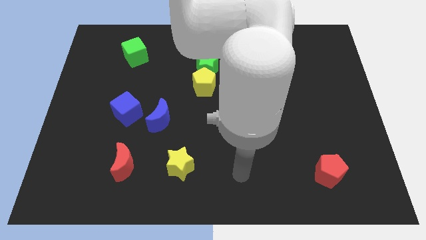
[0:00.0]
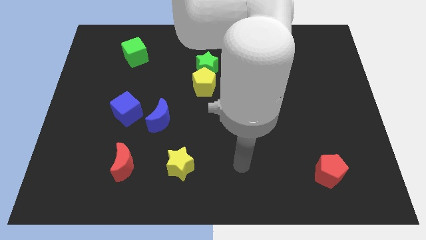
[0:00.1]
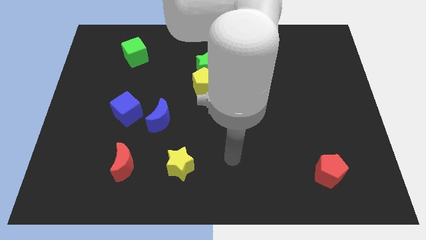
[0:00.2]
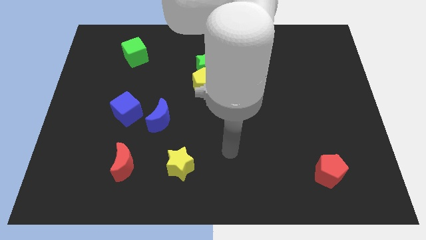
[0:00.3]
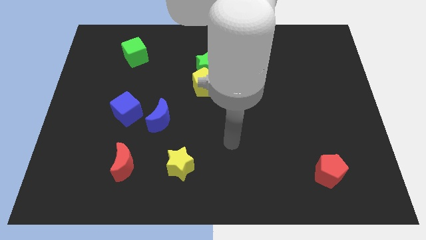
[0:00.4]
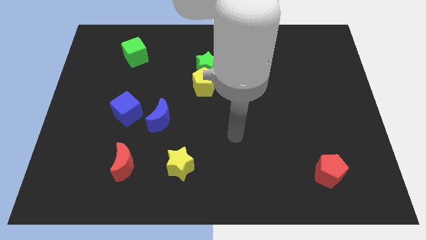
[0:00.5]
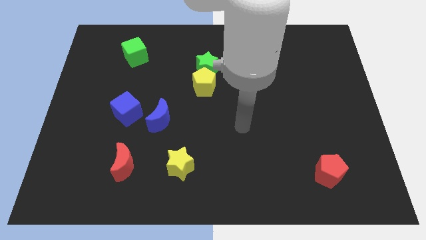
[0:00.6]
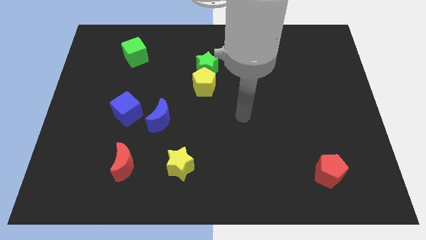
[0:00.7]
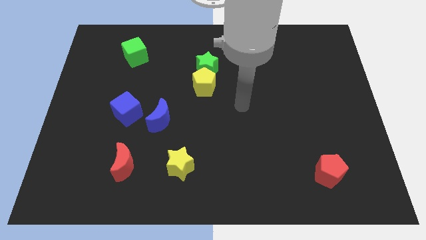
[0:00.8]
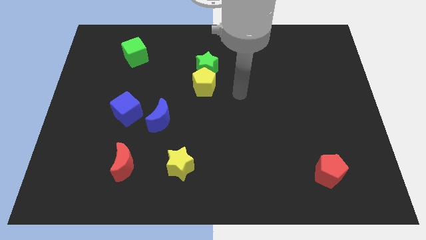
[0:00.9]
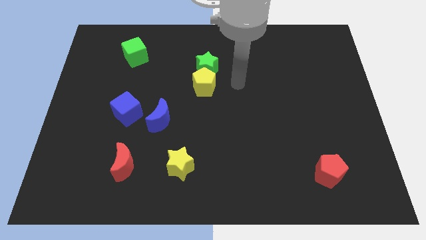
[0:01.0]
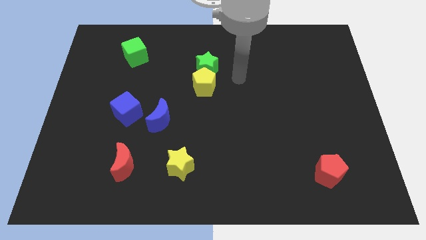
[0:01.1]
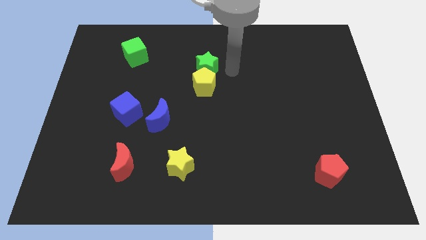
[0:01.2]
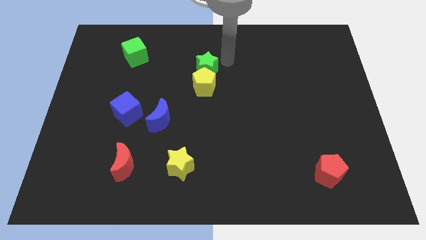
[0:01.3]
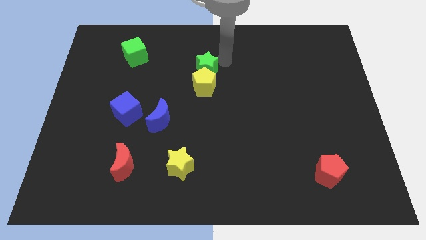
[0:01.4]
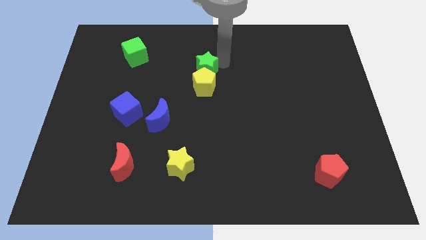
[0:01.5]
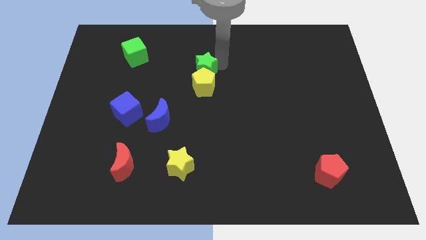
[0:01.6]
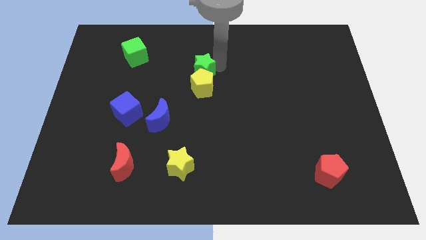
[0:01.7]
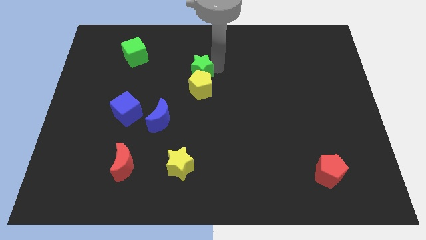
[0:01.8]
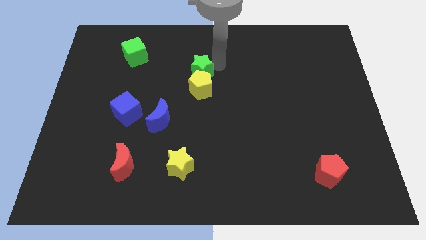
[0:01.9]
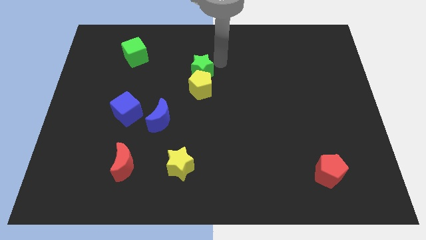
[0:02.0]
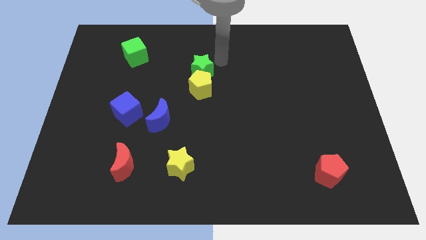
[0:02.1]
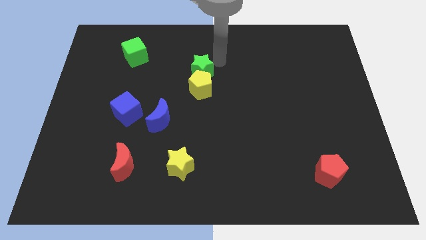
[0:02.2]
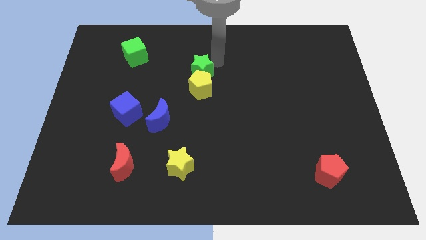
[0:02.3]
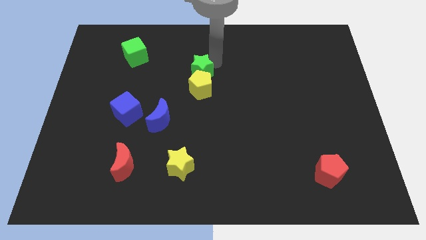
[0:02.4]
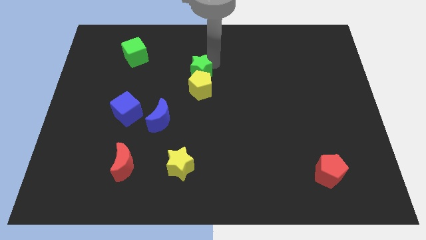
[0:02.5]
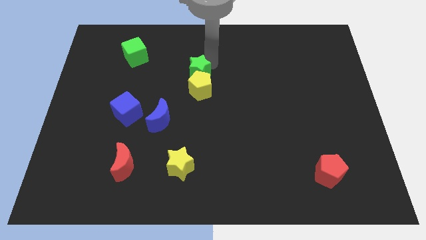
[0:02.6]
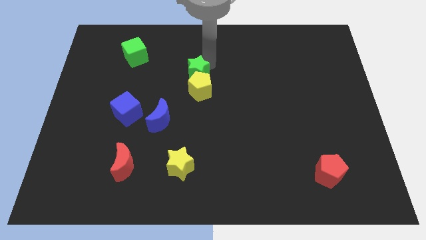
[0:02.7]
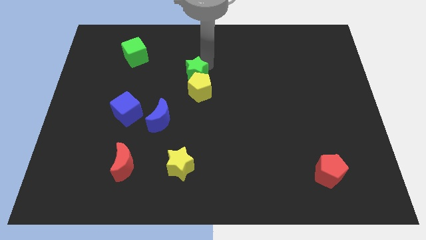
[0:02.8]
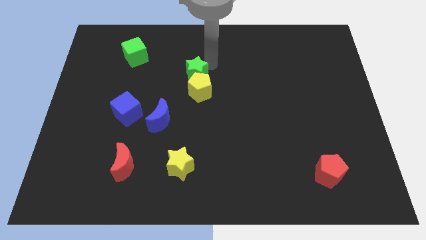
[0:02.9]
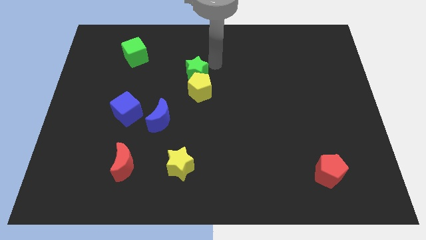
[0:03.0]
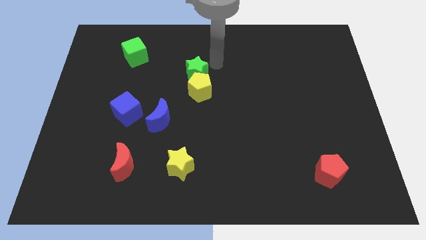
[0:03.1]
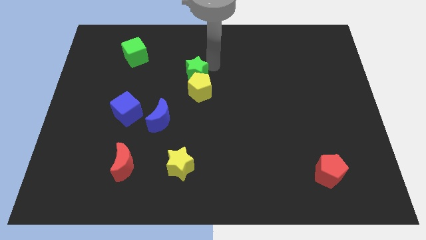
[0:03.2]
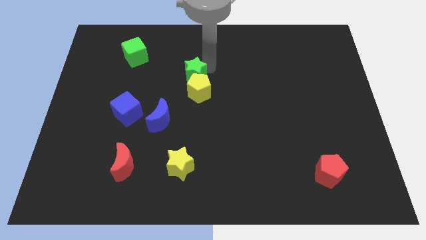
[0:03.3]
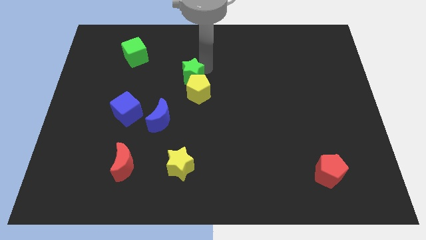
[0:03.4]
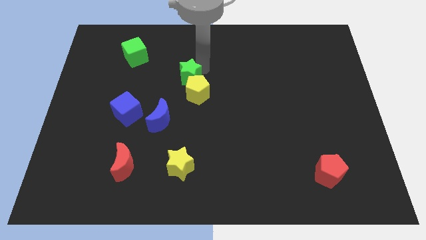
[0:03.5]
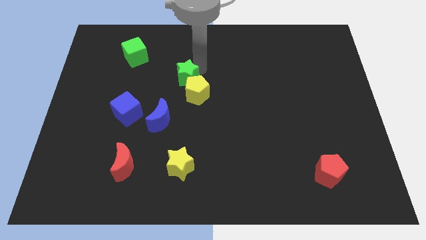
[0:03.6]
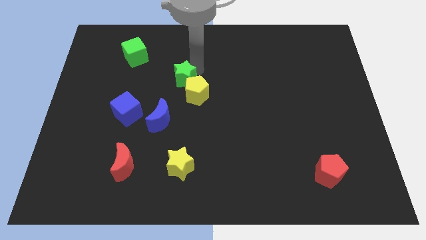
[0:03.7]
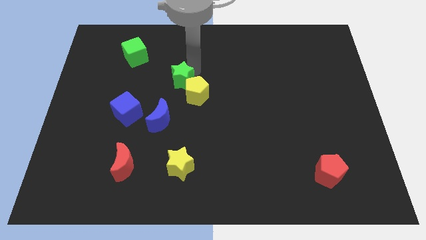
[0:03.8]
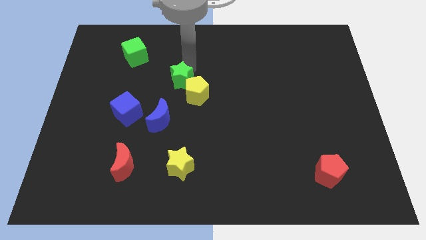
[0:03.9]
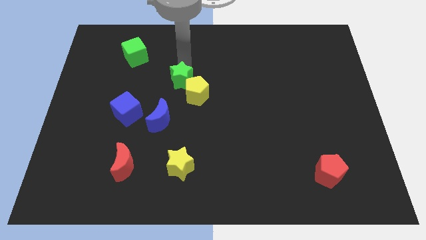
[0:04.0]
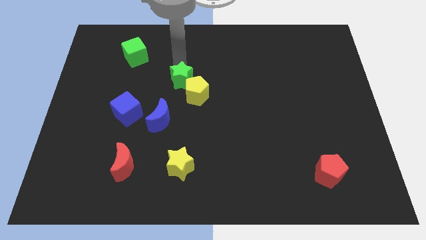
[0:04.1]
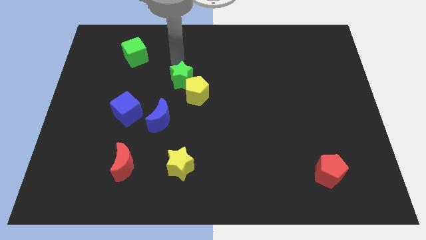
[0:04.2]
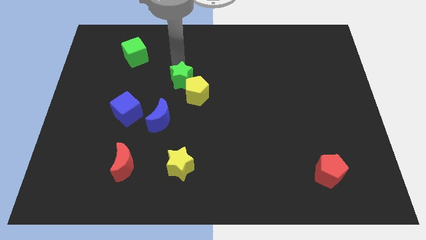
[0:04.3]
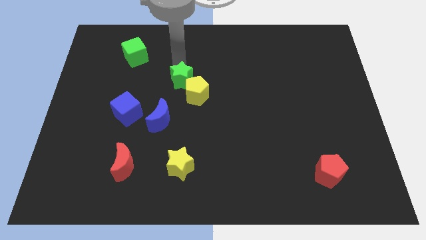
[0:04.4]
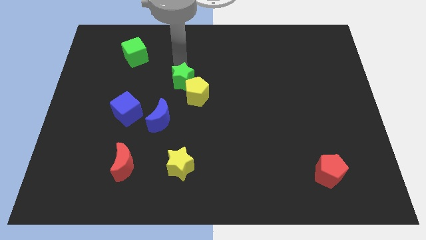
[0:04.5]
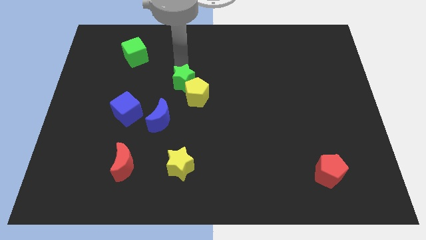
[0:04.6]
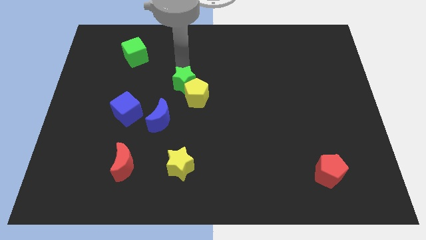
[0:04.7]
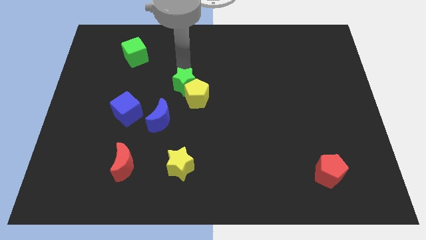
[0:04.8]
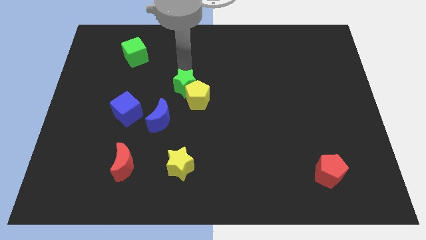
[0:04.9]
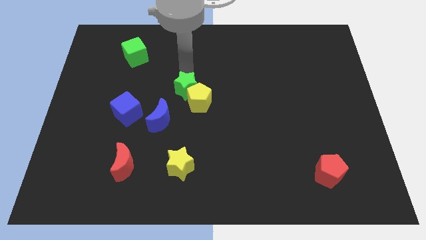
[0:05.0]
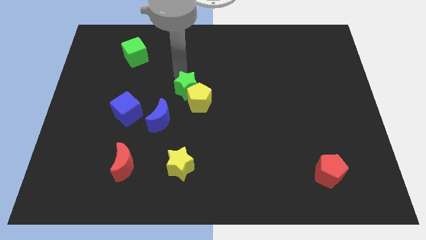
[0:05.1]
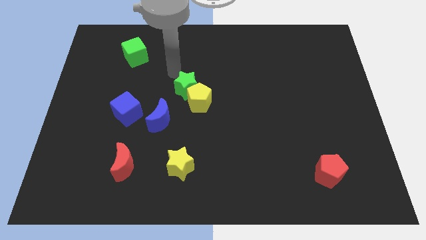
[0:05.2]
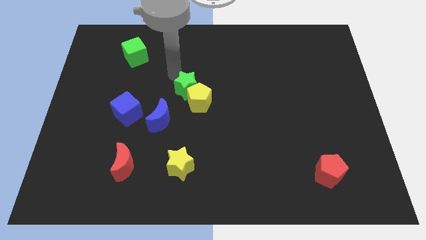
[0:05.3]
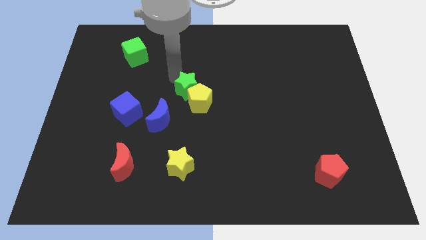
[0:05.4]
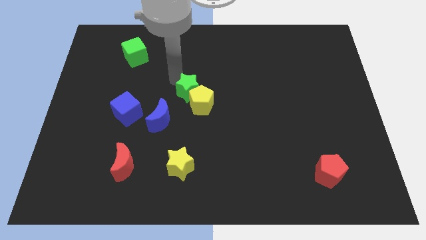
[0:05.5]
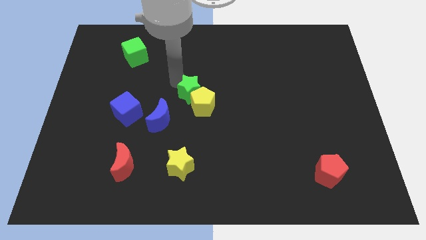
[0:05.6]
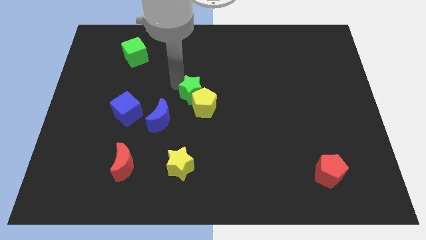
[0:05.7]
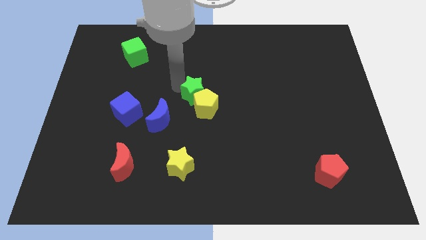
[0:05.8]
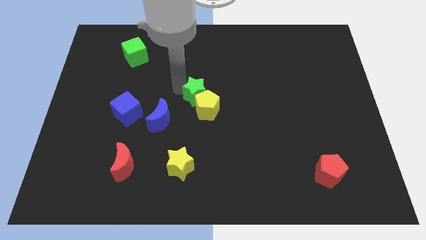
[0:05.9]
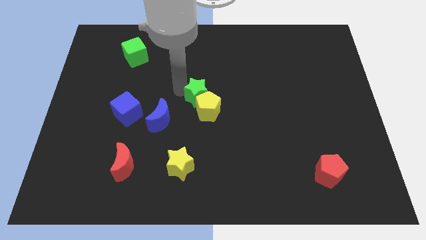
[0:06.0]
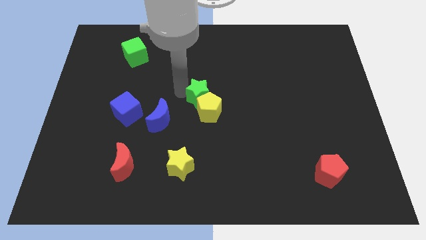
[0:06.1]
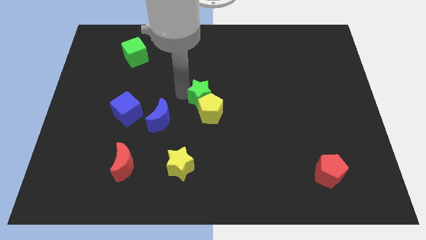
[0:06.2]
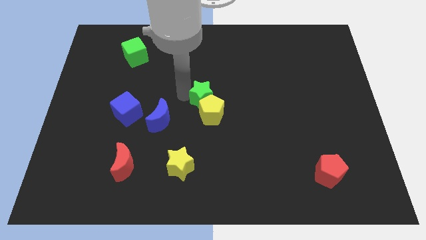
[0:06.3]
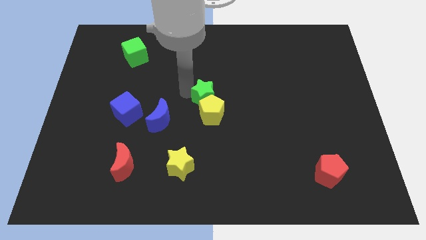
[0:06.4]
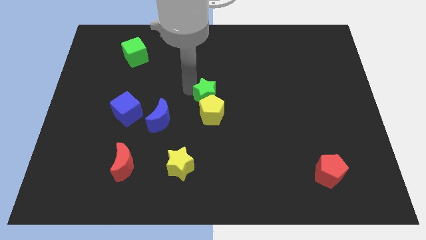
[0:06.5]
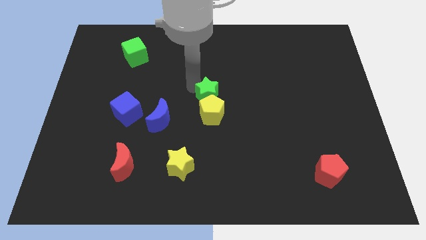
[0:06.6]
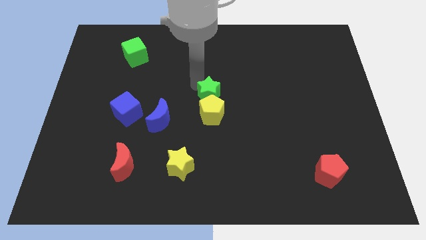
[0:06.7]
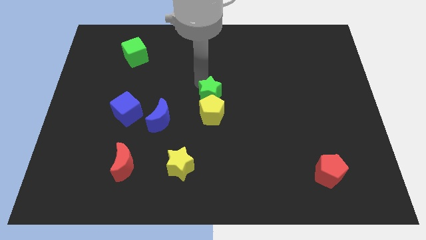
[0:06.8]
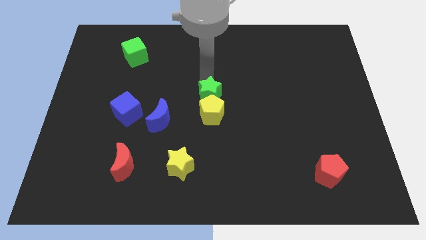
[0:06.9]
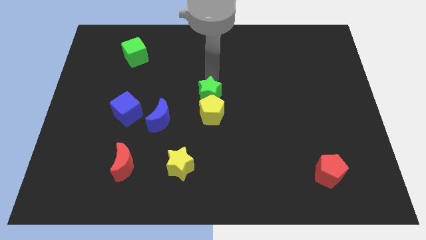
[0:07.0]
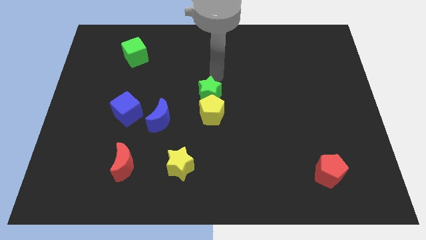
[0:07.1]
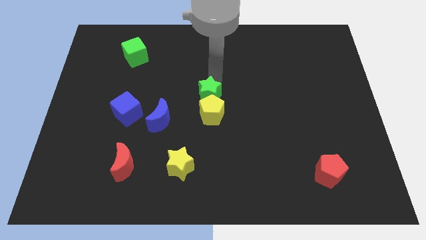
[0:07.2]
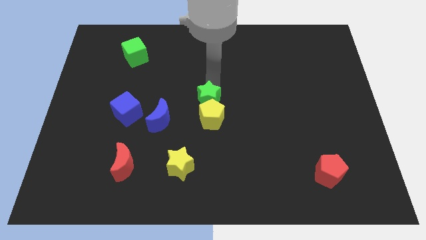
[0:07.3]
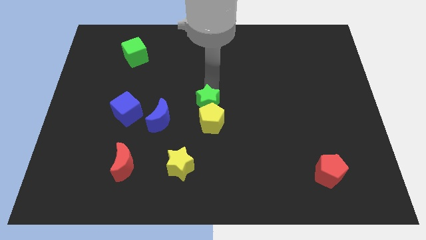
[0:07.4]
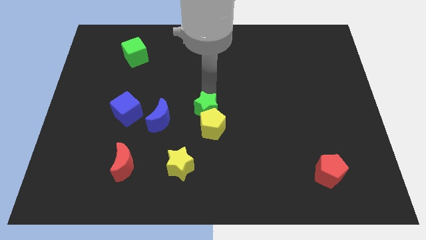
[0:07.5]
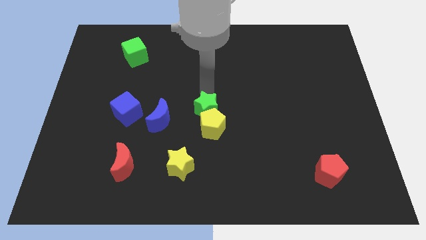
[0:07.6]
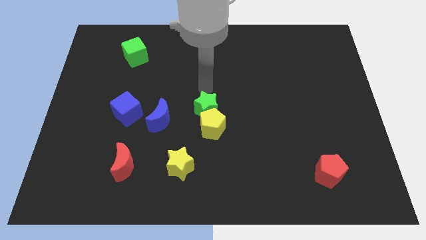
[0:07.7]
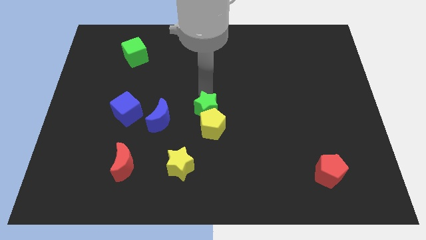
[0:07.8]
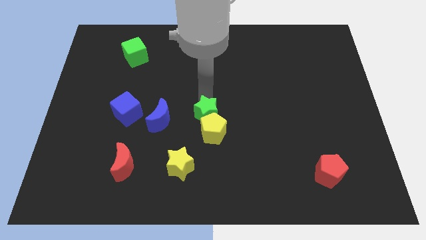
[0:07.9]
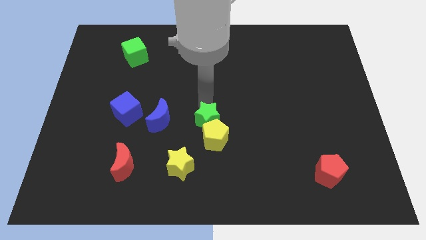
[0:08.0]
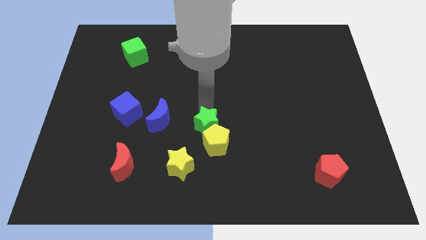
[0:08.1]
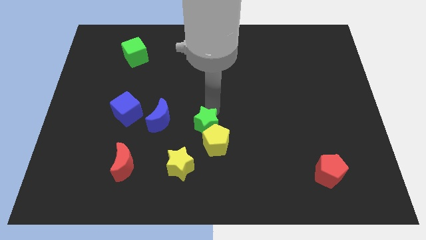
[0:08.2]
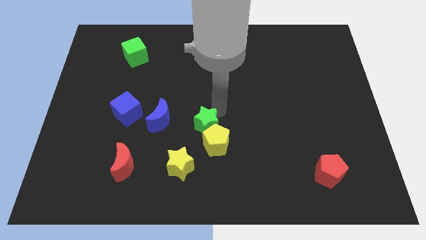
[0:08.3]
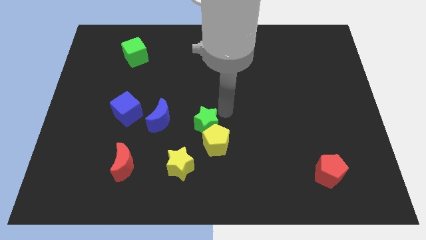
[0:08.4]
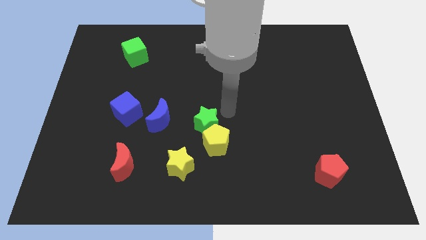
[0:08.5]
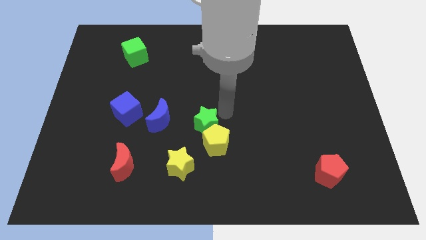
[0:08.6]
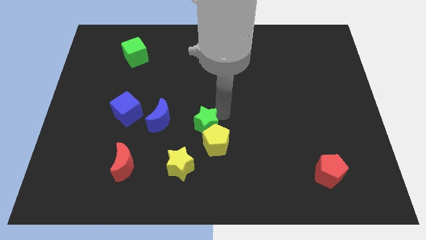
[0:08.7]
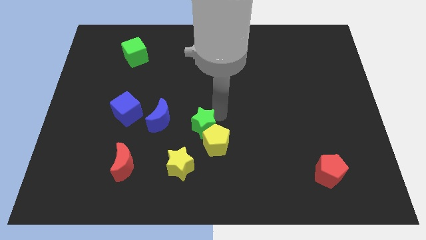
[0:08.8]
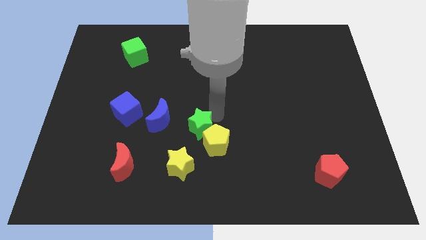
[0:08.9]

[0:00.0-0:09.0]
slide the green star diagonally down and to the right of the blue moon
